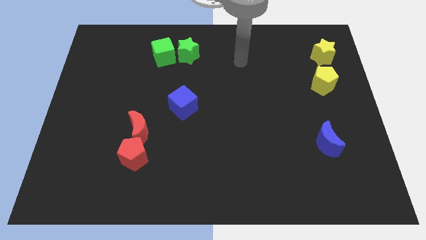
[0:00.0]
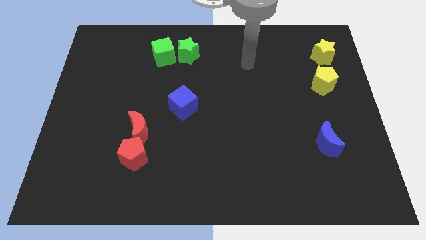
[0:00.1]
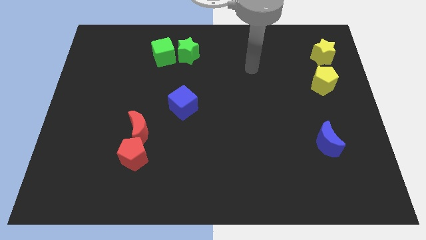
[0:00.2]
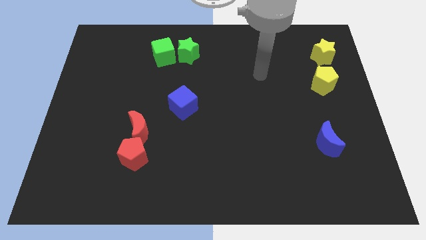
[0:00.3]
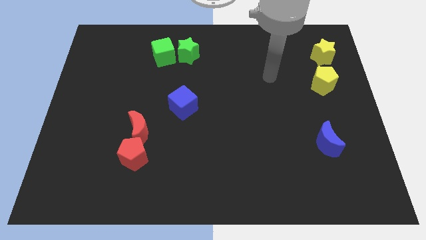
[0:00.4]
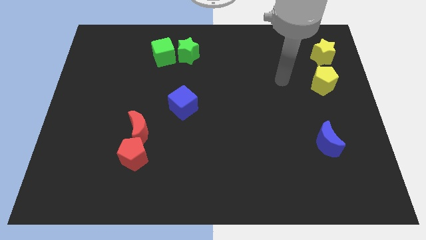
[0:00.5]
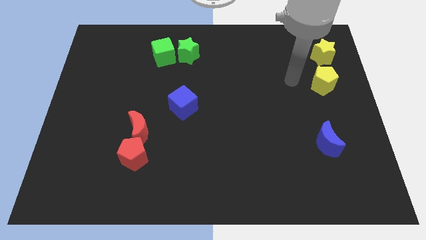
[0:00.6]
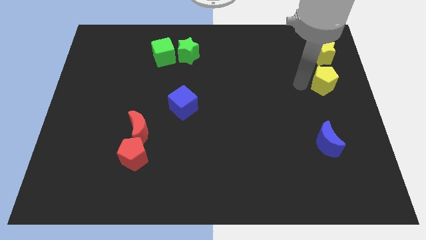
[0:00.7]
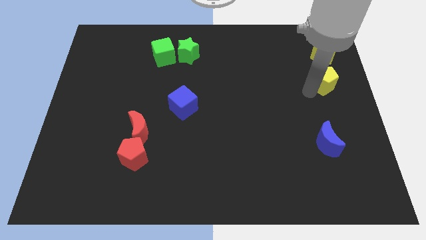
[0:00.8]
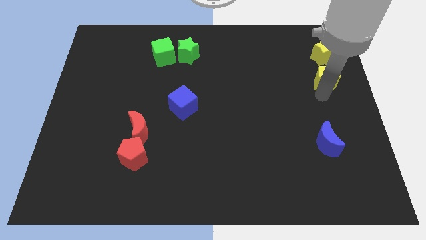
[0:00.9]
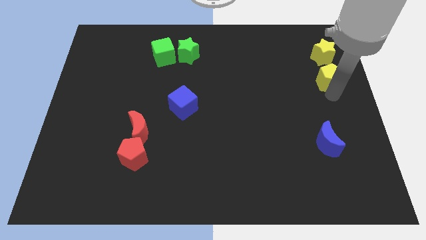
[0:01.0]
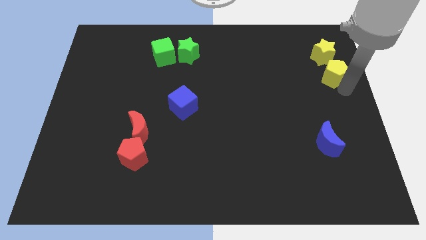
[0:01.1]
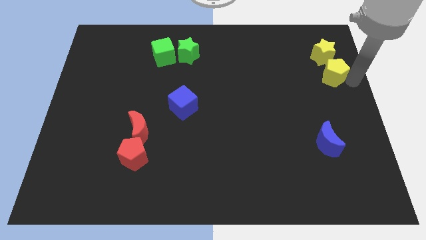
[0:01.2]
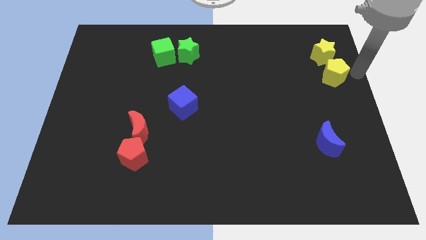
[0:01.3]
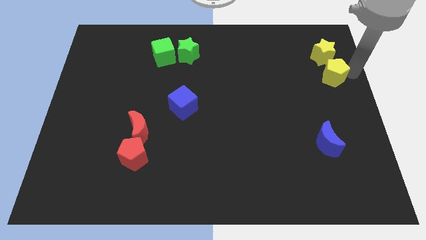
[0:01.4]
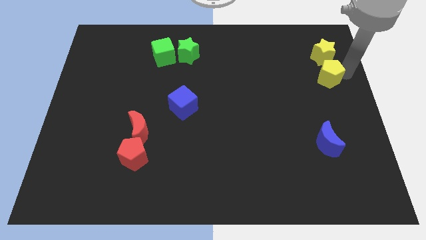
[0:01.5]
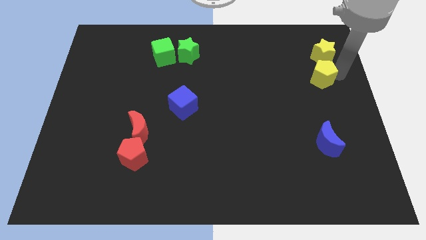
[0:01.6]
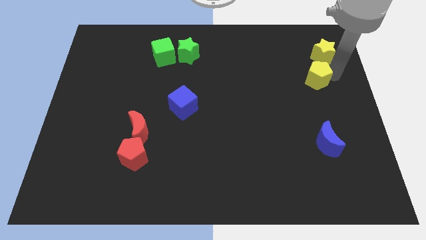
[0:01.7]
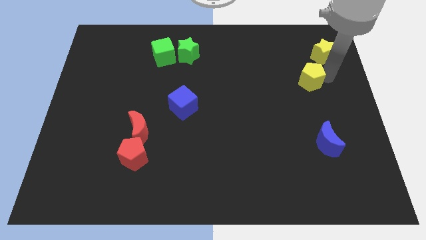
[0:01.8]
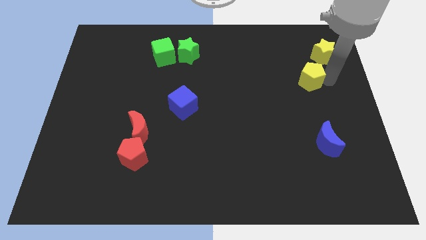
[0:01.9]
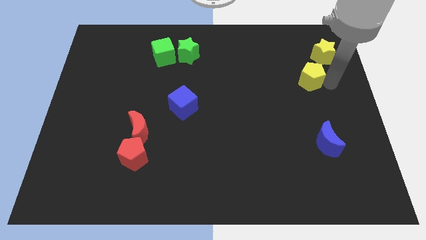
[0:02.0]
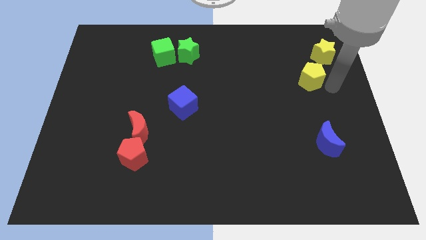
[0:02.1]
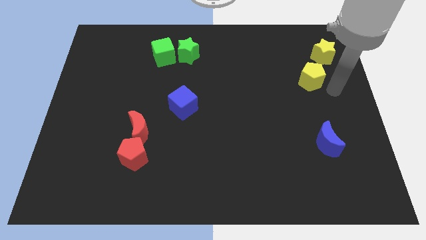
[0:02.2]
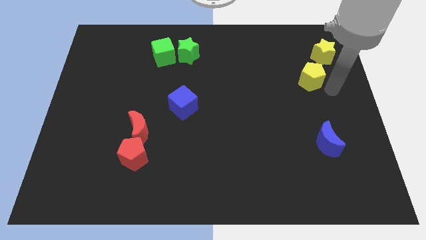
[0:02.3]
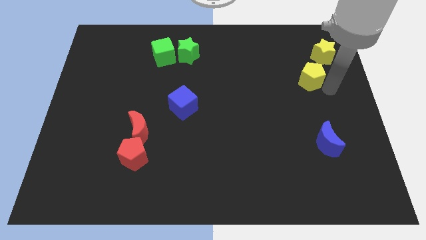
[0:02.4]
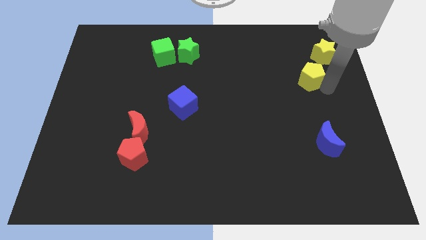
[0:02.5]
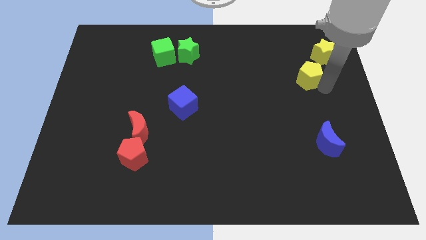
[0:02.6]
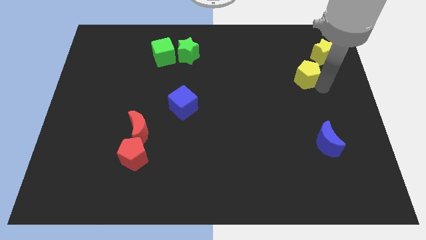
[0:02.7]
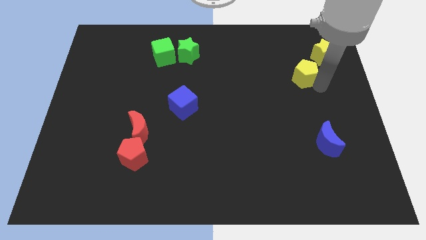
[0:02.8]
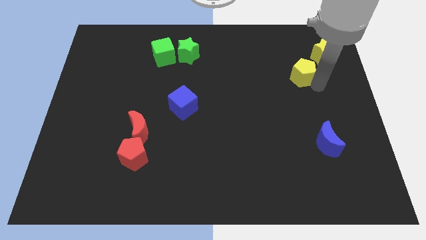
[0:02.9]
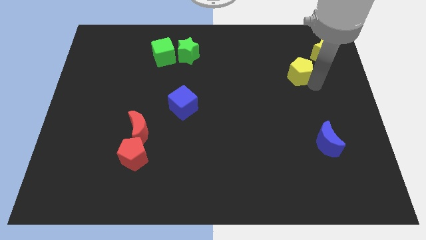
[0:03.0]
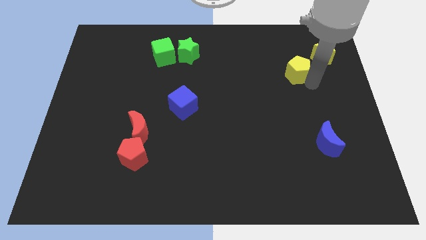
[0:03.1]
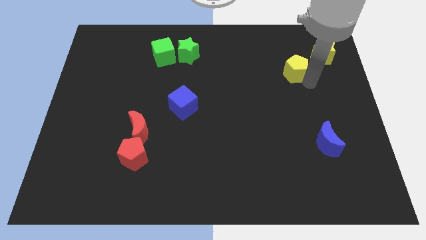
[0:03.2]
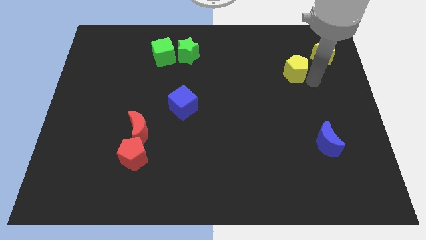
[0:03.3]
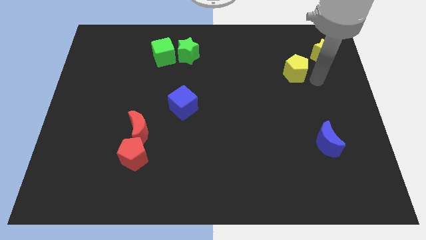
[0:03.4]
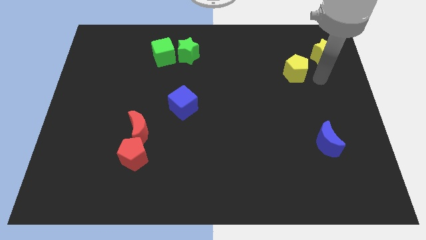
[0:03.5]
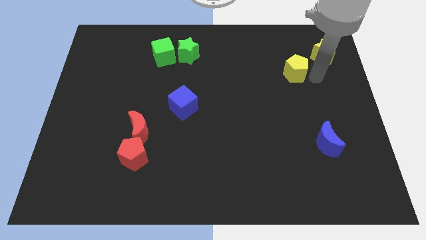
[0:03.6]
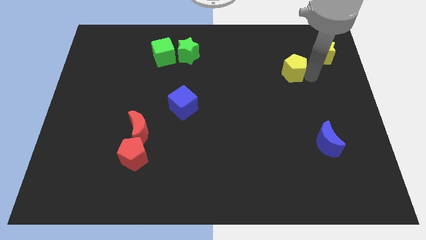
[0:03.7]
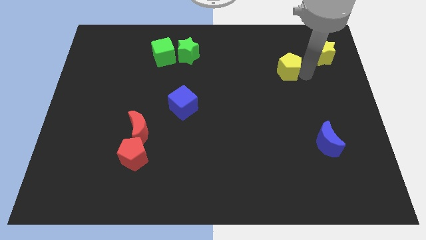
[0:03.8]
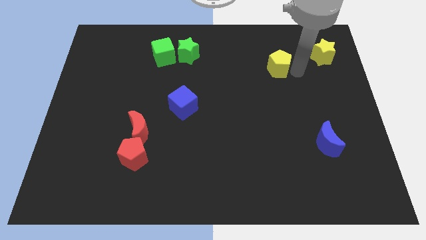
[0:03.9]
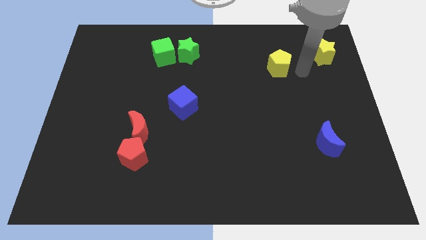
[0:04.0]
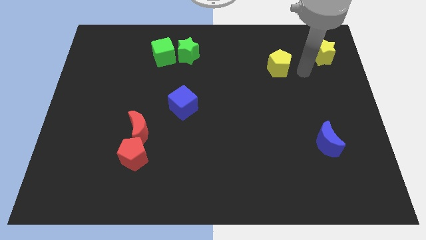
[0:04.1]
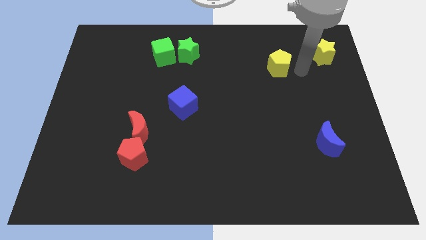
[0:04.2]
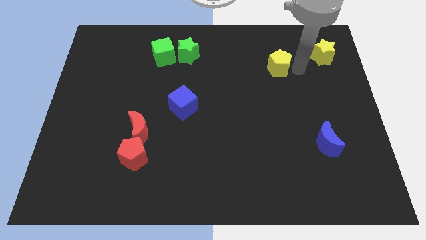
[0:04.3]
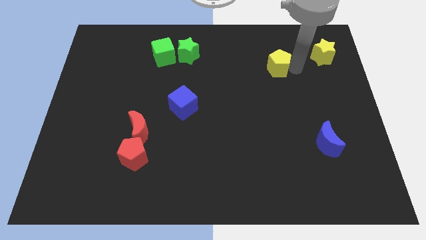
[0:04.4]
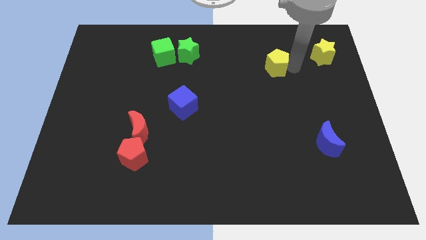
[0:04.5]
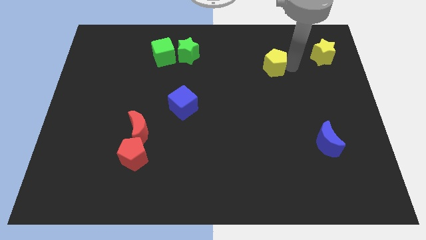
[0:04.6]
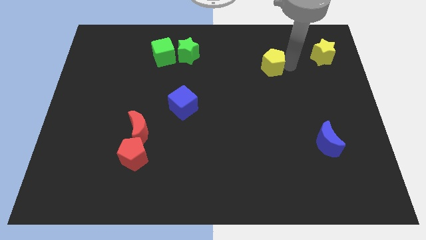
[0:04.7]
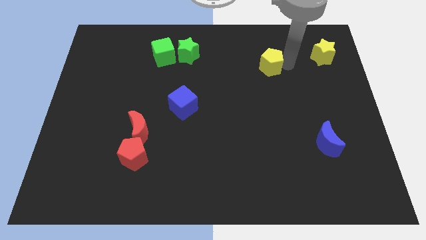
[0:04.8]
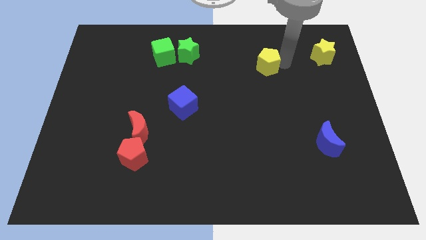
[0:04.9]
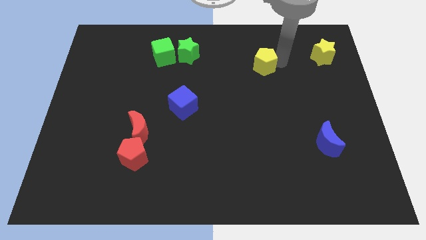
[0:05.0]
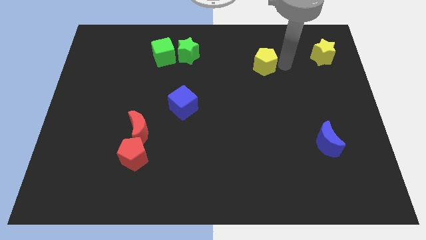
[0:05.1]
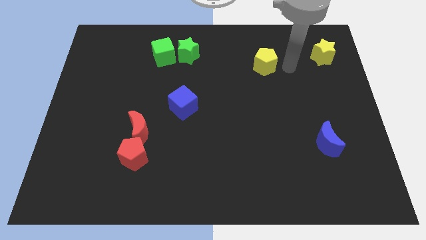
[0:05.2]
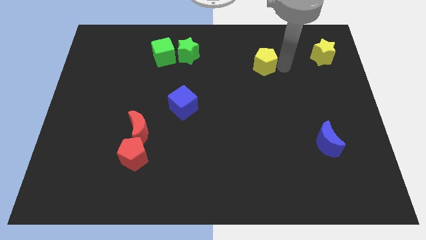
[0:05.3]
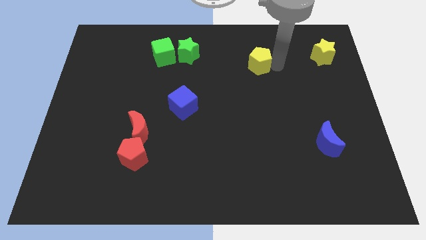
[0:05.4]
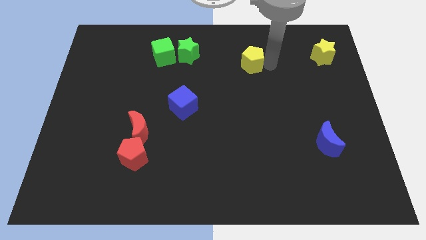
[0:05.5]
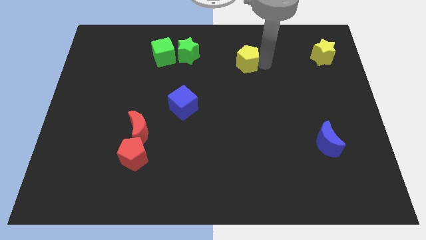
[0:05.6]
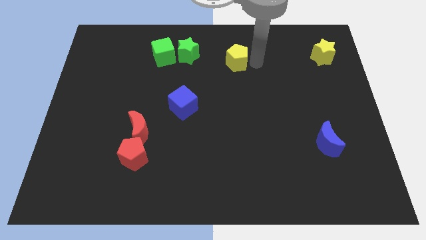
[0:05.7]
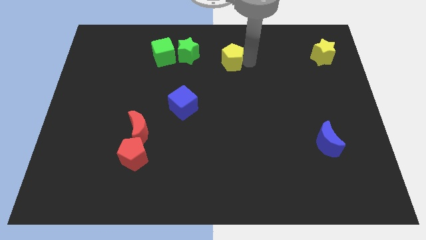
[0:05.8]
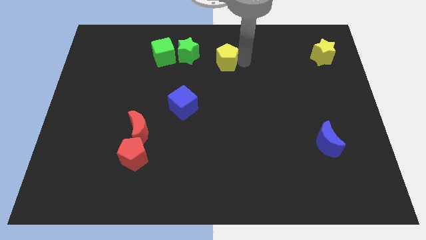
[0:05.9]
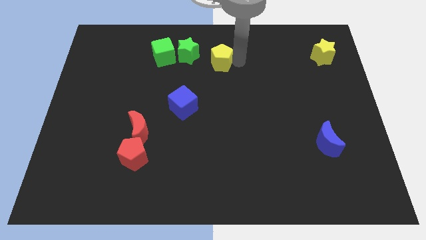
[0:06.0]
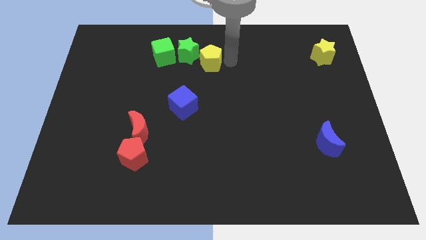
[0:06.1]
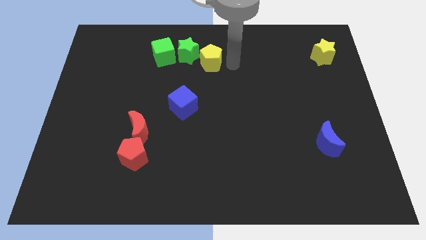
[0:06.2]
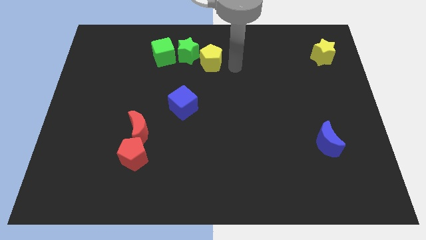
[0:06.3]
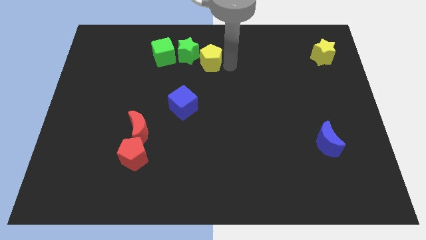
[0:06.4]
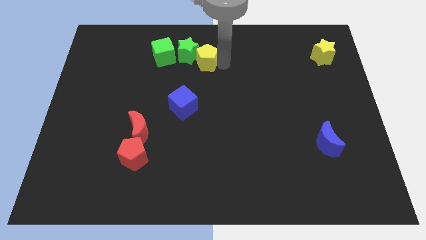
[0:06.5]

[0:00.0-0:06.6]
move the yellow pentagon next to the green star
